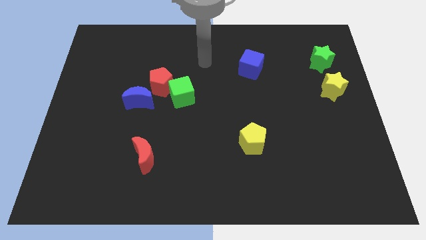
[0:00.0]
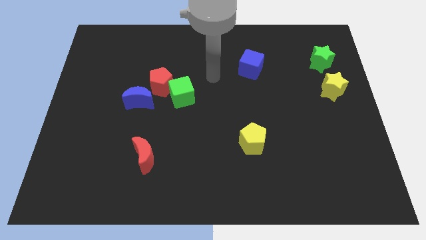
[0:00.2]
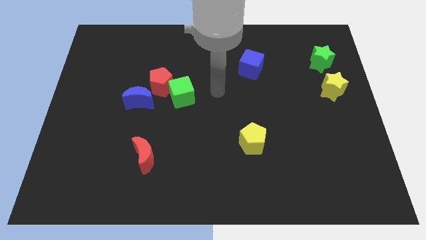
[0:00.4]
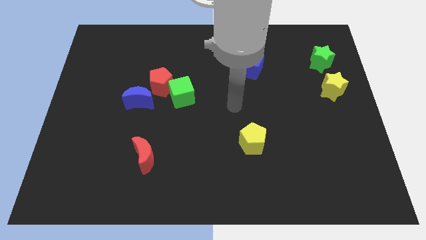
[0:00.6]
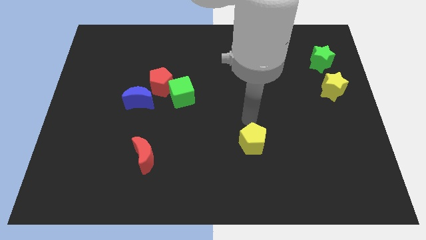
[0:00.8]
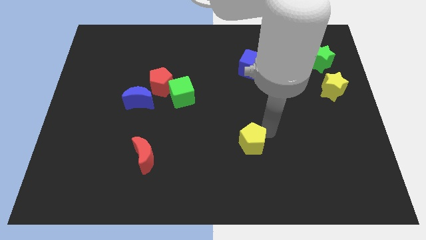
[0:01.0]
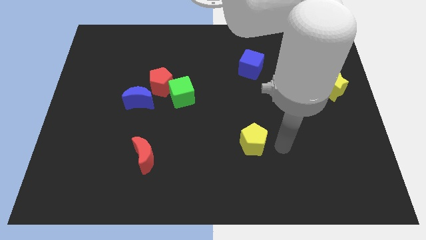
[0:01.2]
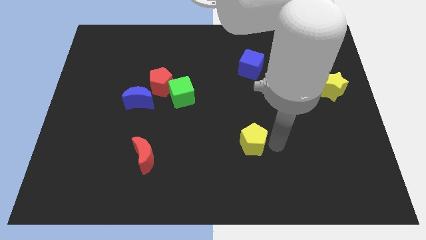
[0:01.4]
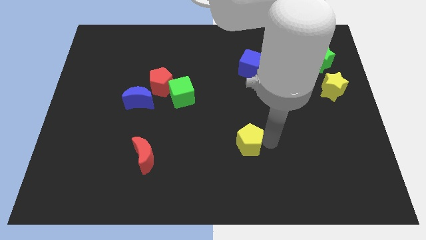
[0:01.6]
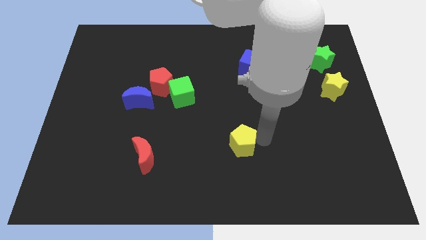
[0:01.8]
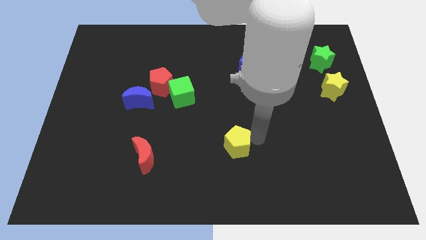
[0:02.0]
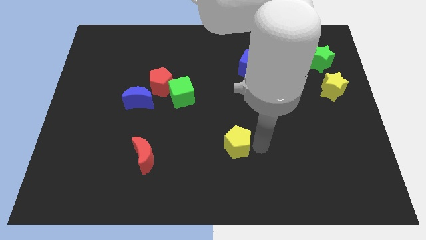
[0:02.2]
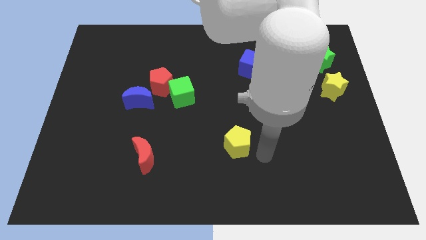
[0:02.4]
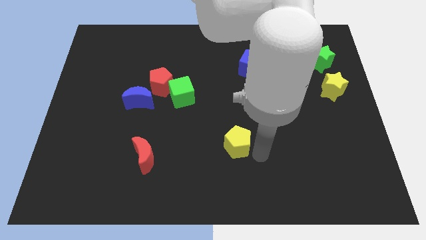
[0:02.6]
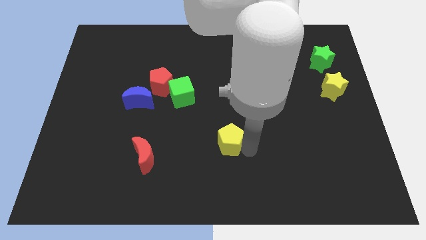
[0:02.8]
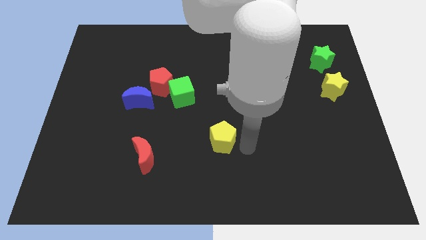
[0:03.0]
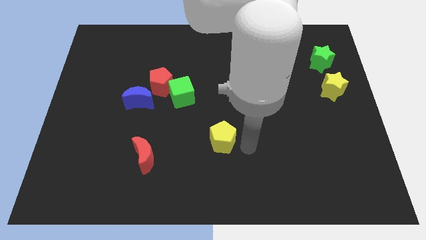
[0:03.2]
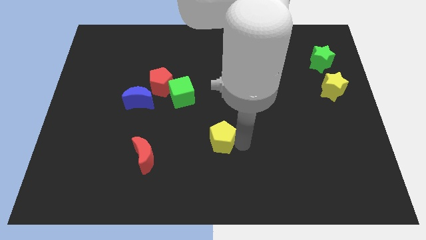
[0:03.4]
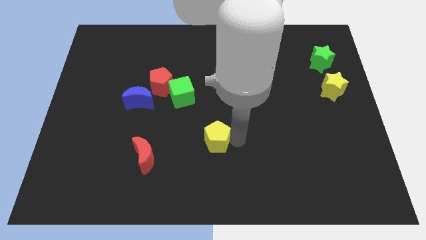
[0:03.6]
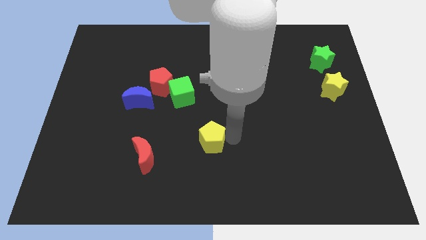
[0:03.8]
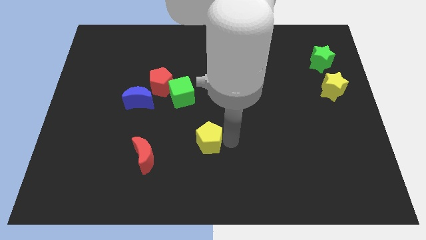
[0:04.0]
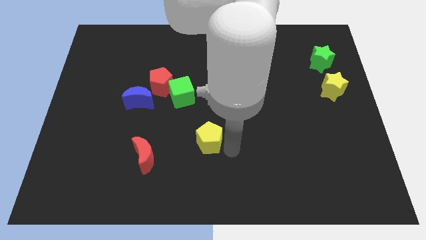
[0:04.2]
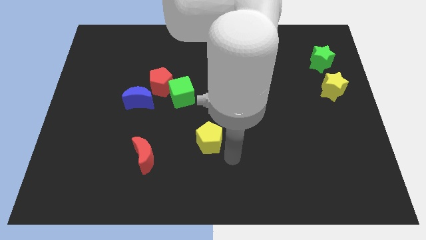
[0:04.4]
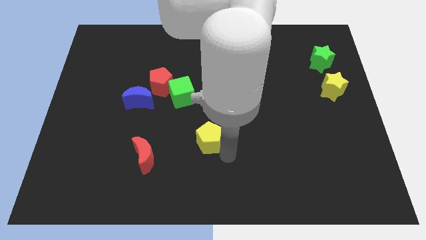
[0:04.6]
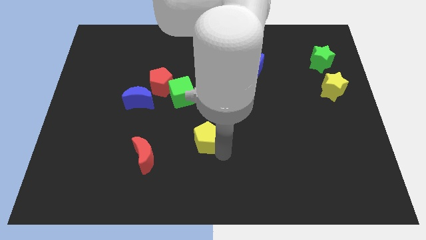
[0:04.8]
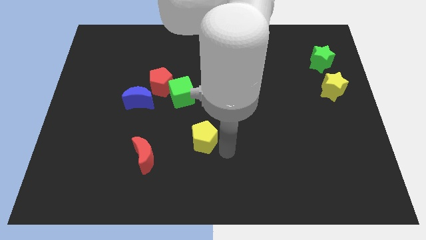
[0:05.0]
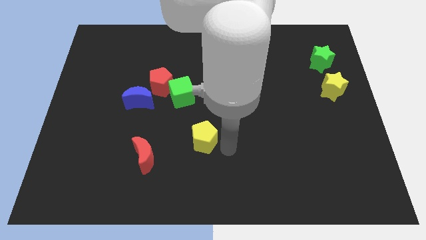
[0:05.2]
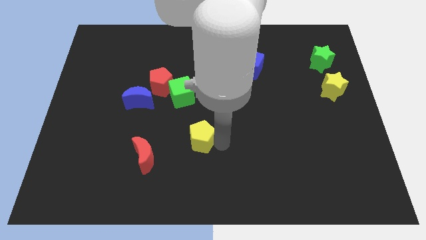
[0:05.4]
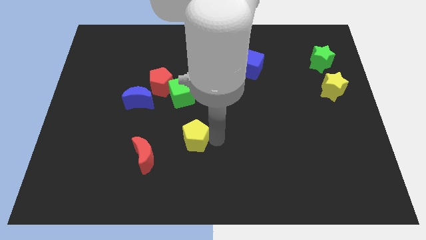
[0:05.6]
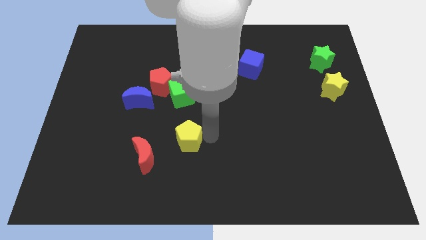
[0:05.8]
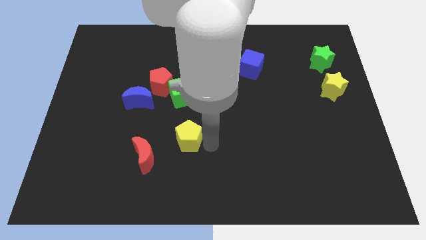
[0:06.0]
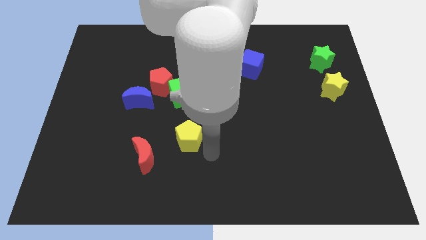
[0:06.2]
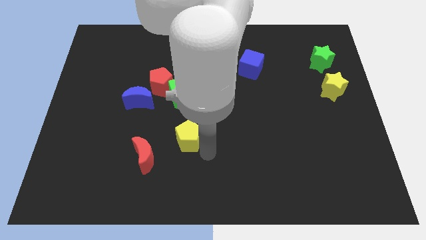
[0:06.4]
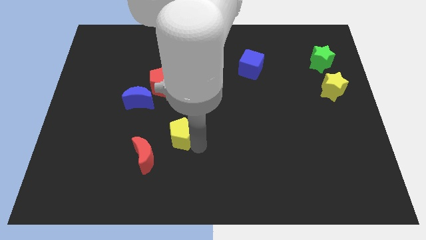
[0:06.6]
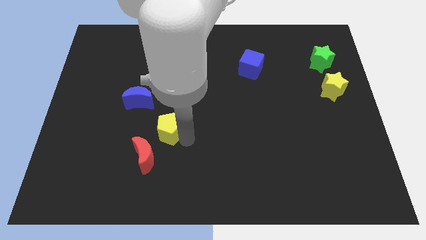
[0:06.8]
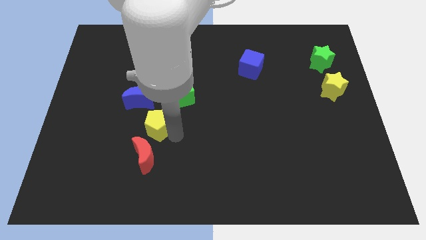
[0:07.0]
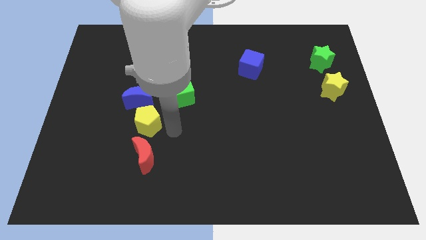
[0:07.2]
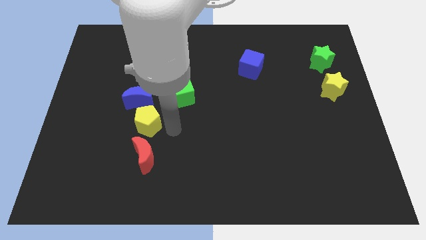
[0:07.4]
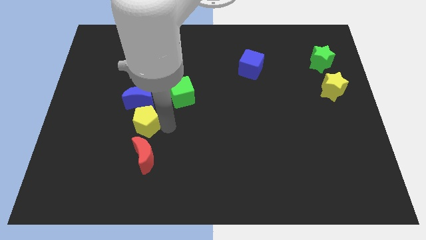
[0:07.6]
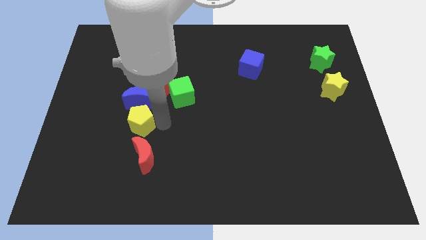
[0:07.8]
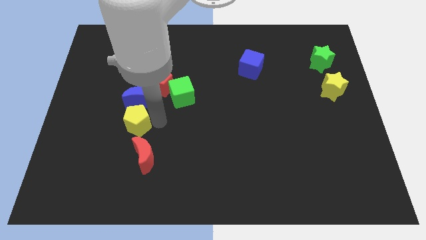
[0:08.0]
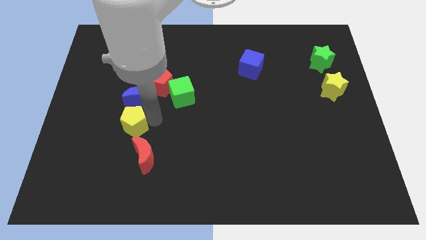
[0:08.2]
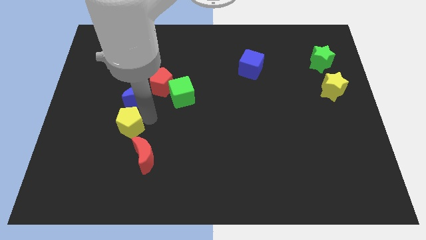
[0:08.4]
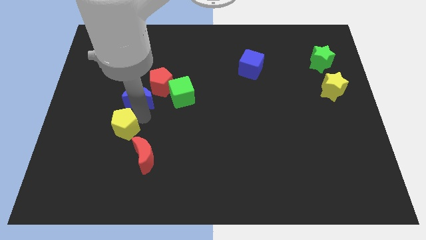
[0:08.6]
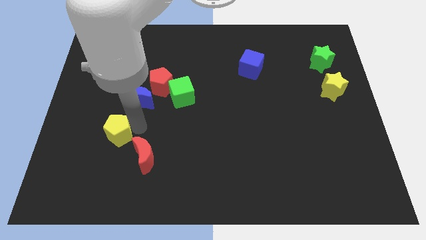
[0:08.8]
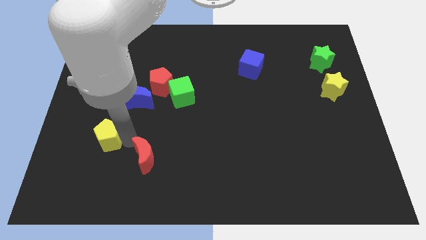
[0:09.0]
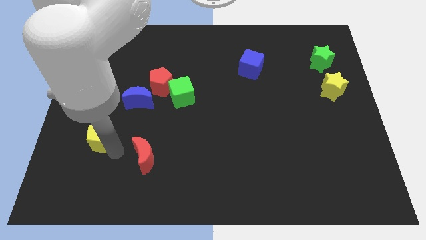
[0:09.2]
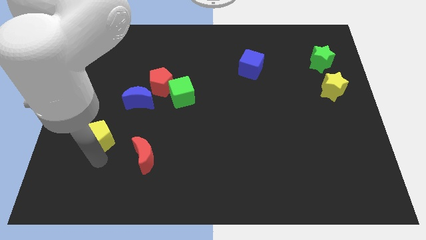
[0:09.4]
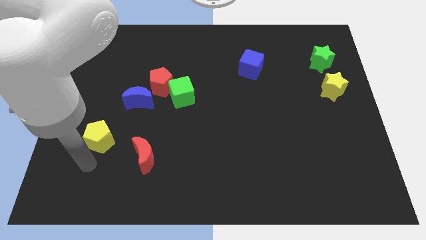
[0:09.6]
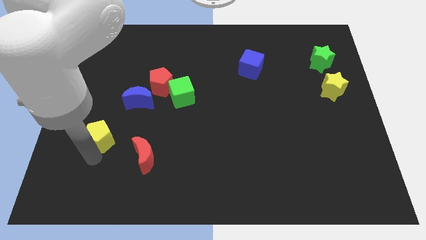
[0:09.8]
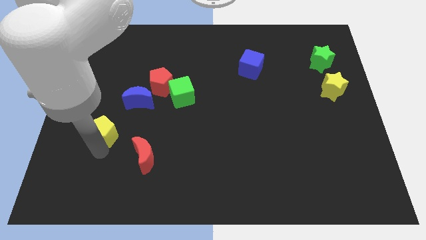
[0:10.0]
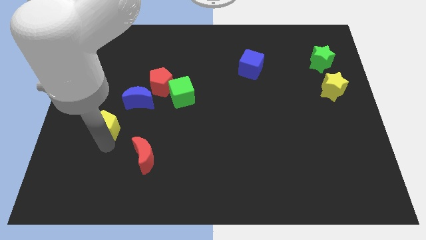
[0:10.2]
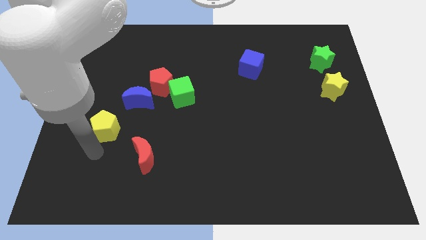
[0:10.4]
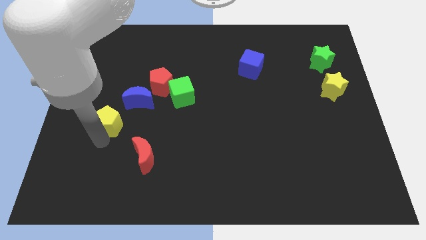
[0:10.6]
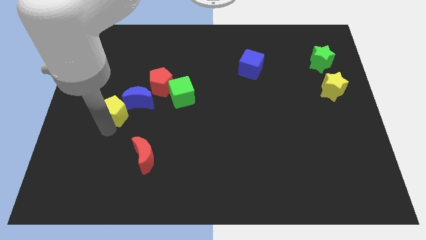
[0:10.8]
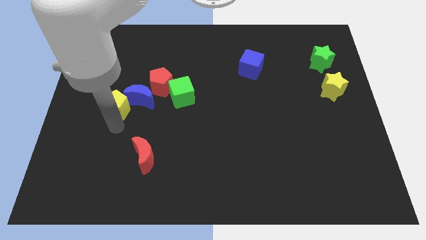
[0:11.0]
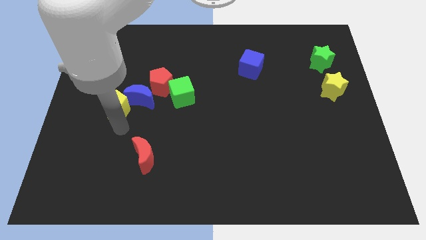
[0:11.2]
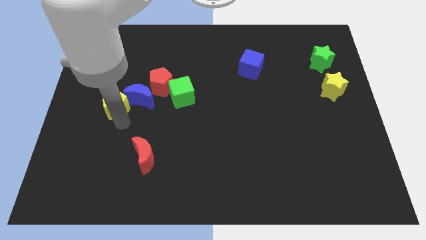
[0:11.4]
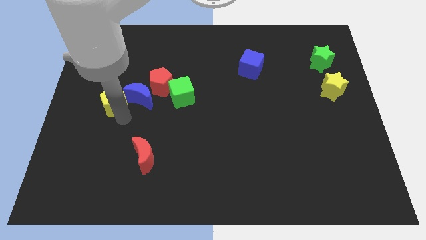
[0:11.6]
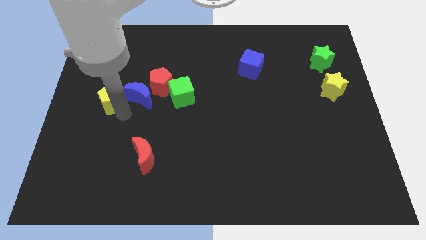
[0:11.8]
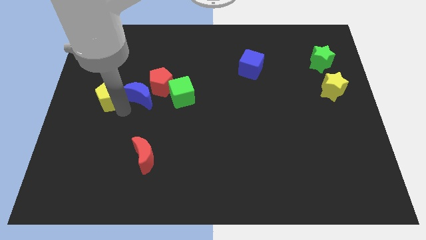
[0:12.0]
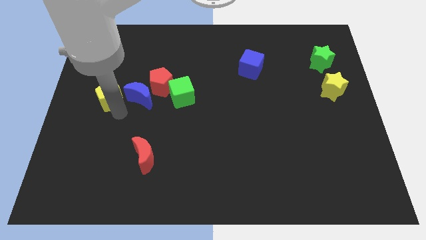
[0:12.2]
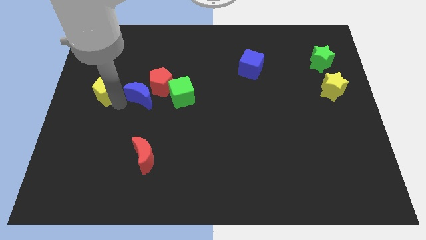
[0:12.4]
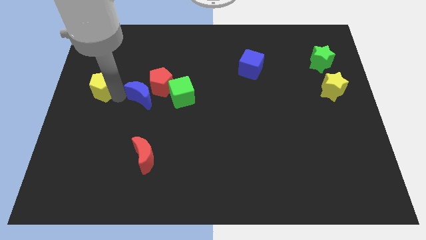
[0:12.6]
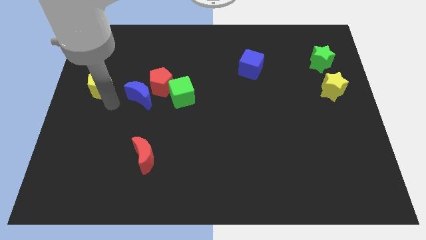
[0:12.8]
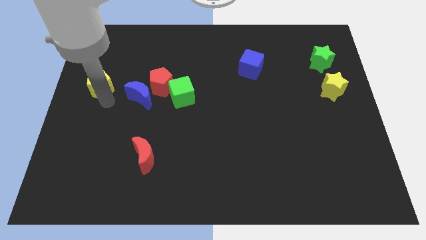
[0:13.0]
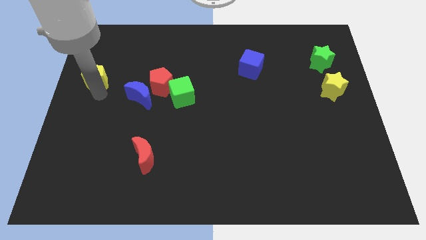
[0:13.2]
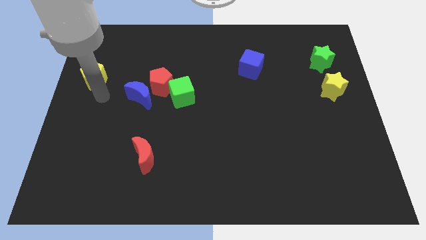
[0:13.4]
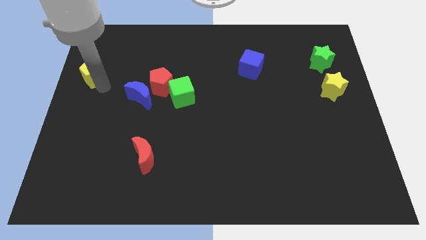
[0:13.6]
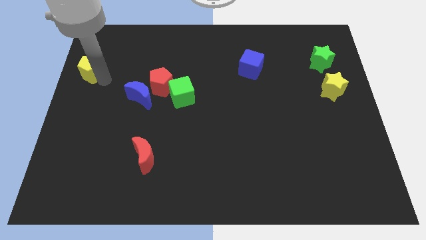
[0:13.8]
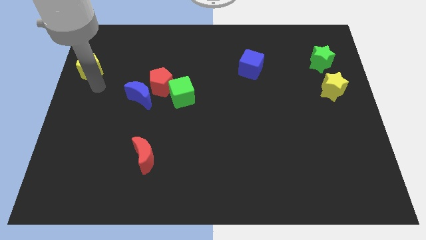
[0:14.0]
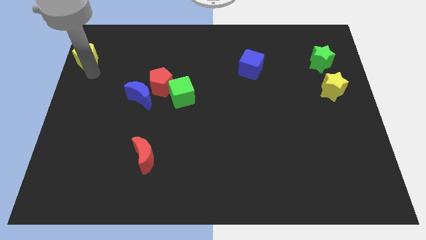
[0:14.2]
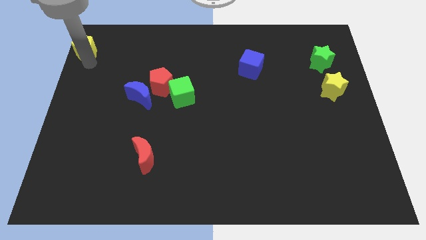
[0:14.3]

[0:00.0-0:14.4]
slide the yellow pentagon to the top left

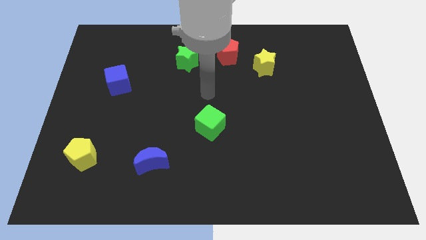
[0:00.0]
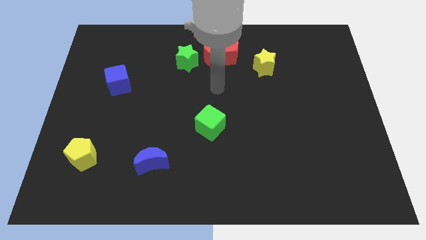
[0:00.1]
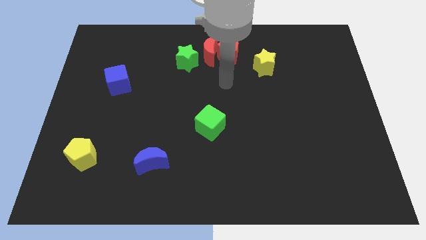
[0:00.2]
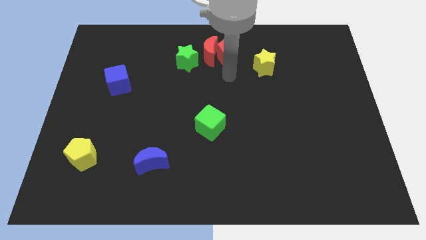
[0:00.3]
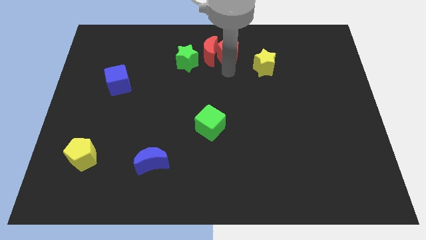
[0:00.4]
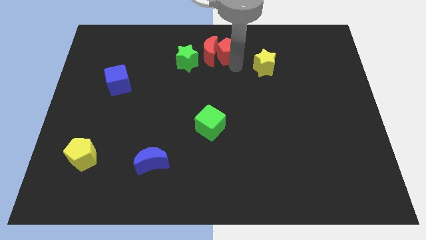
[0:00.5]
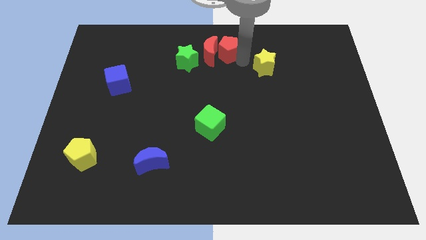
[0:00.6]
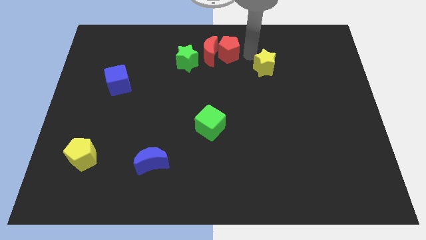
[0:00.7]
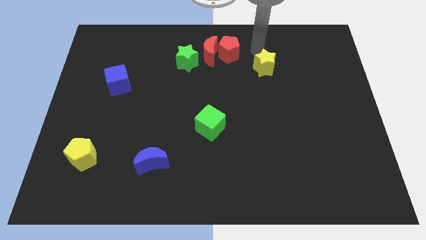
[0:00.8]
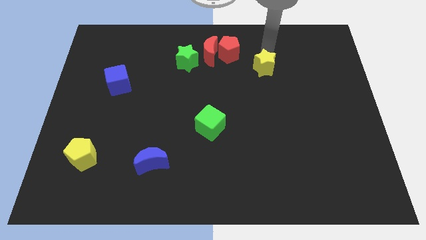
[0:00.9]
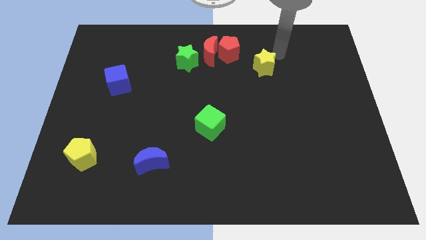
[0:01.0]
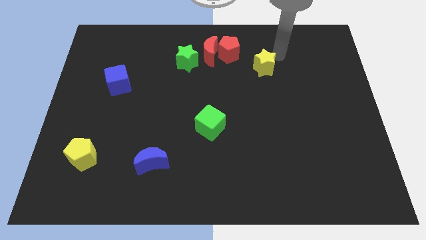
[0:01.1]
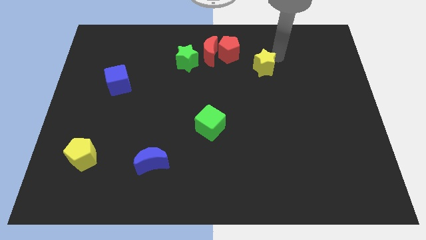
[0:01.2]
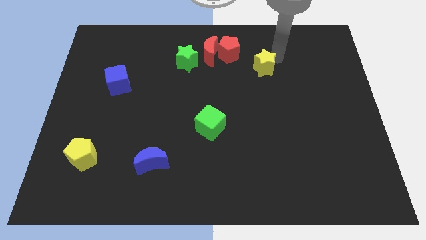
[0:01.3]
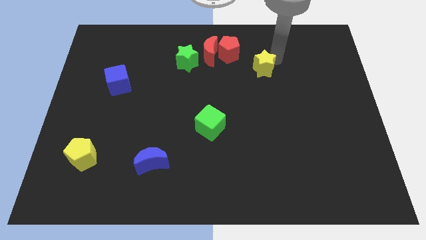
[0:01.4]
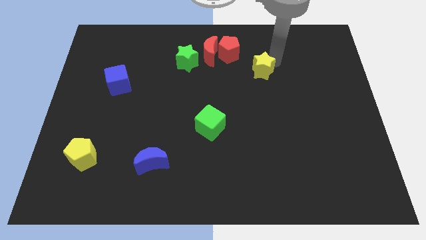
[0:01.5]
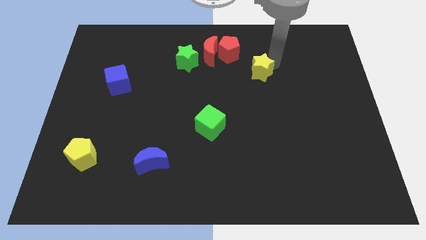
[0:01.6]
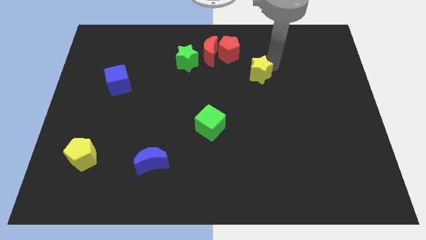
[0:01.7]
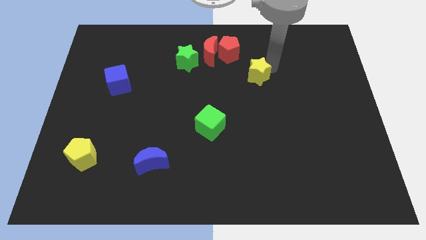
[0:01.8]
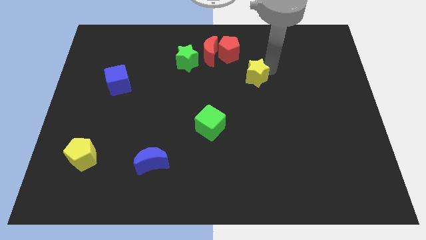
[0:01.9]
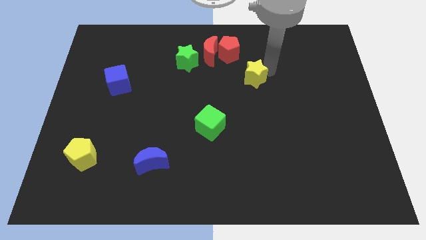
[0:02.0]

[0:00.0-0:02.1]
push the yellow star to the middle
